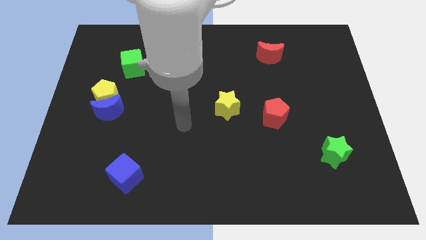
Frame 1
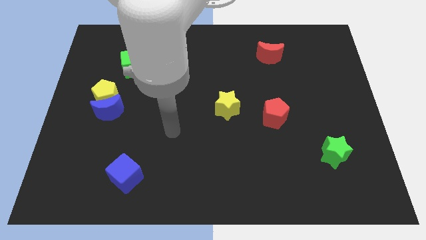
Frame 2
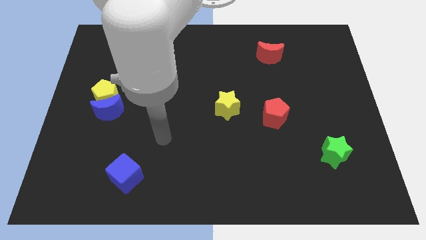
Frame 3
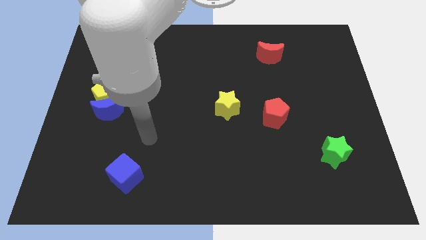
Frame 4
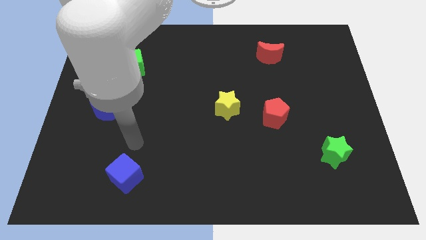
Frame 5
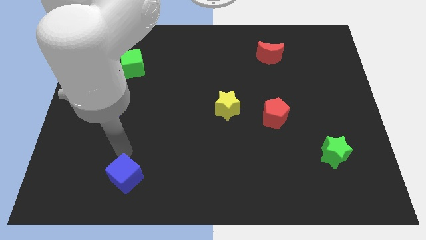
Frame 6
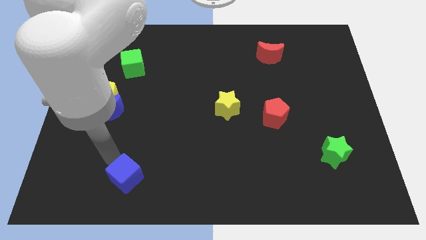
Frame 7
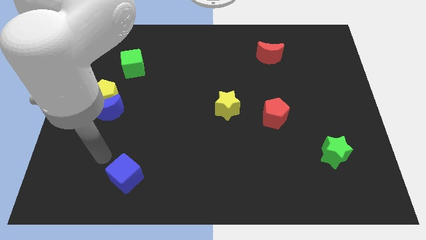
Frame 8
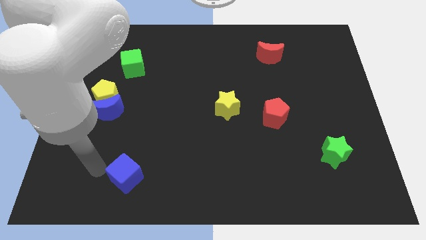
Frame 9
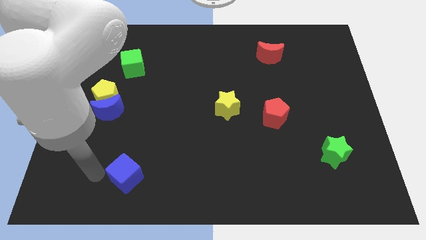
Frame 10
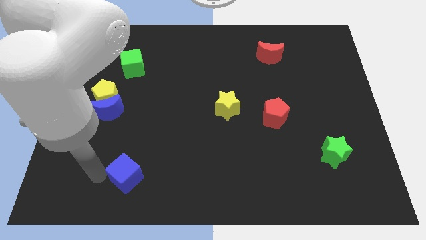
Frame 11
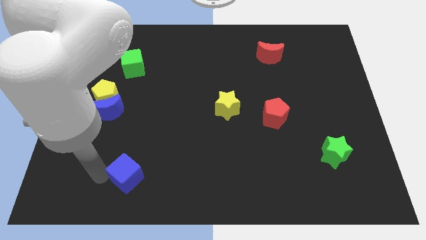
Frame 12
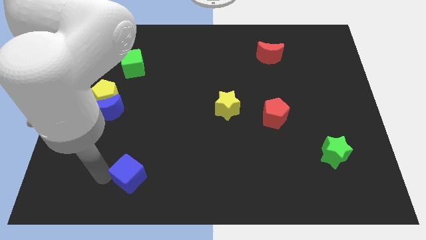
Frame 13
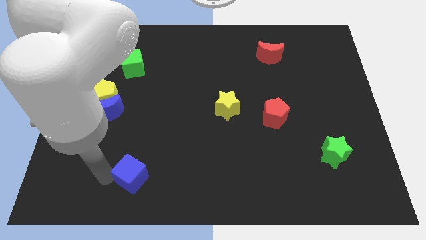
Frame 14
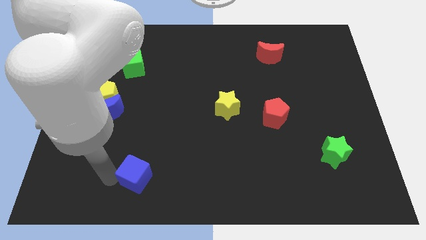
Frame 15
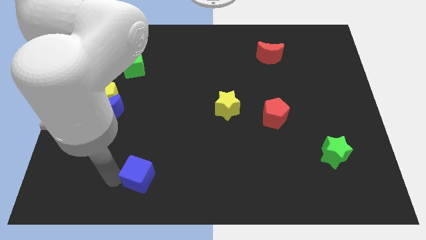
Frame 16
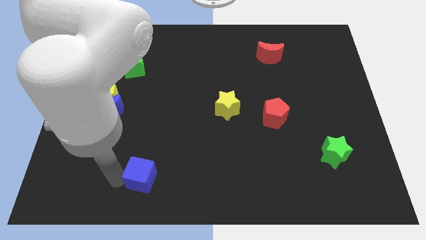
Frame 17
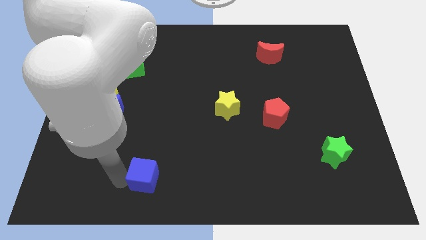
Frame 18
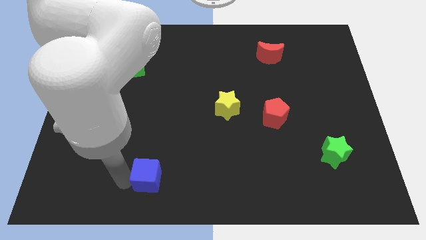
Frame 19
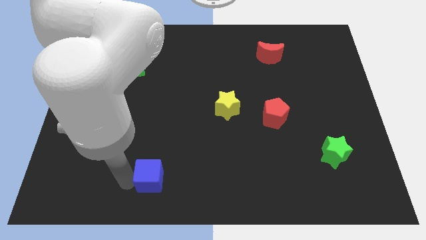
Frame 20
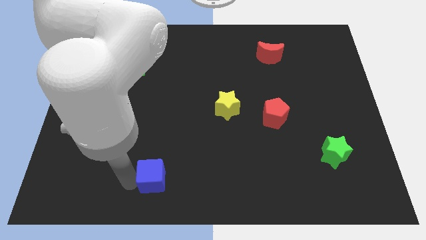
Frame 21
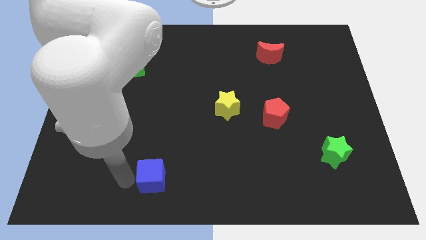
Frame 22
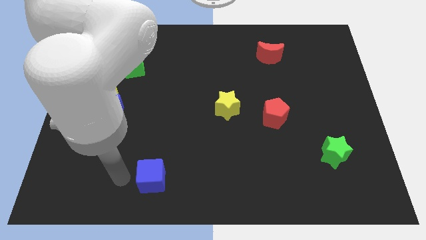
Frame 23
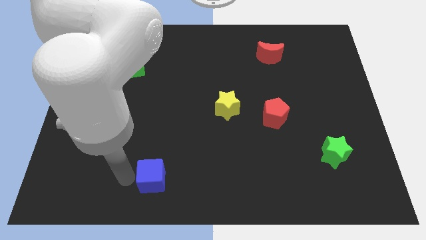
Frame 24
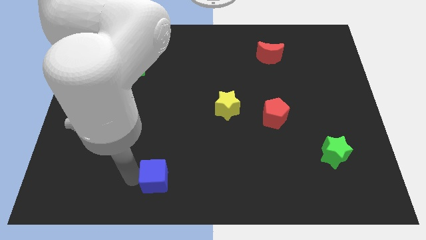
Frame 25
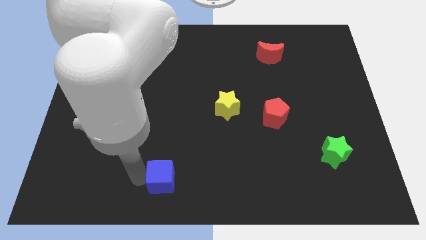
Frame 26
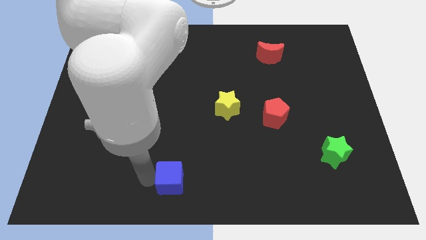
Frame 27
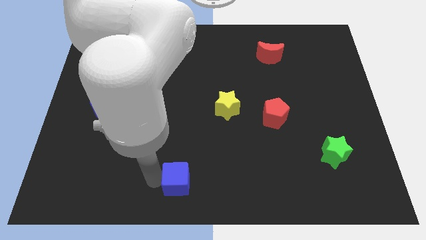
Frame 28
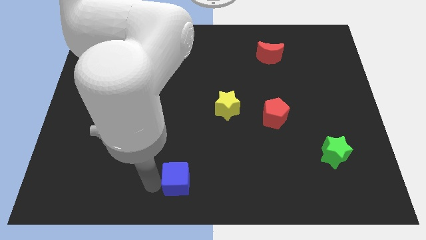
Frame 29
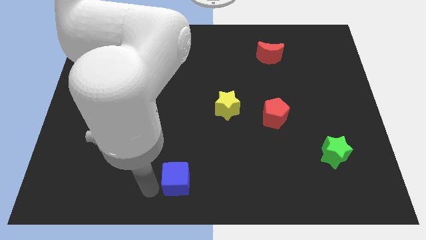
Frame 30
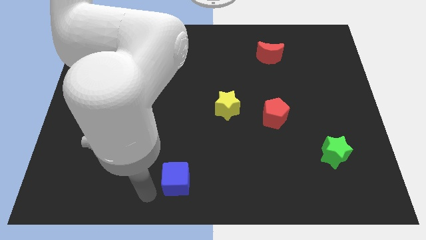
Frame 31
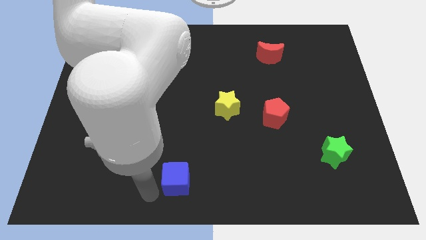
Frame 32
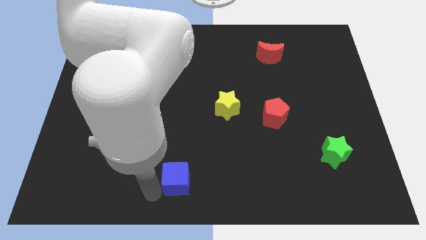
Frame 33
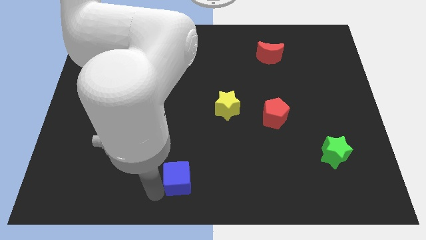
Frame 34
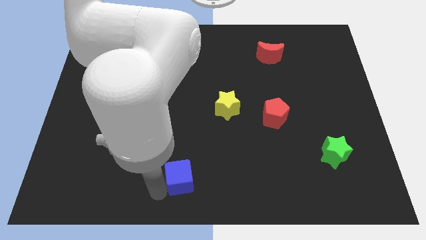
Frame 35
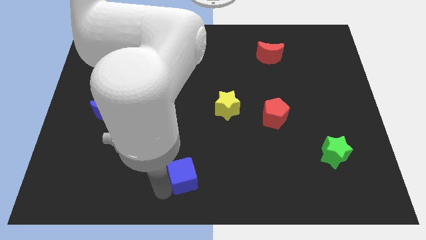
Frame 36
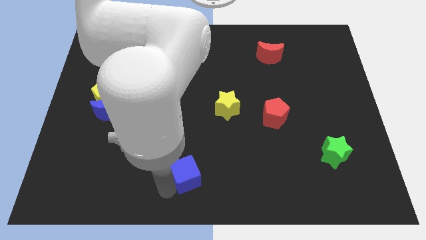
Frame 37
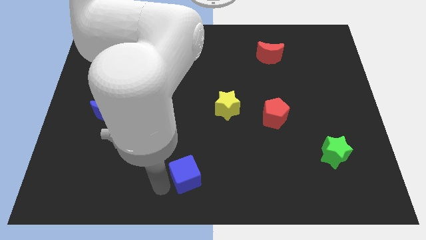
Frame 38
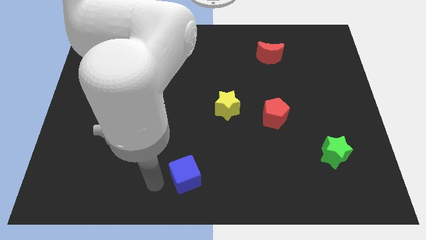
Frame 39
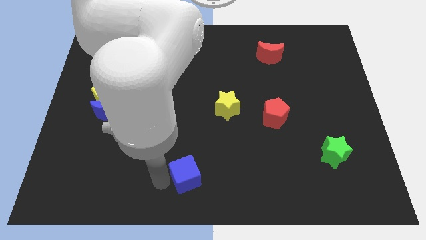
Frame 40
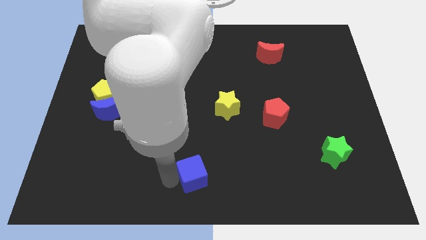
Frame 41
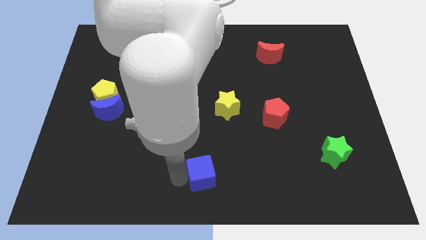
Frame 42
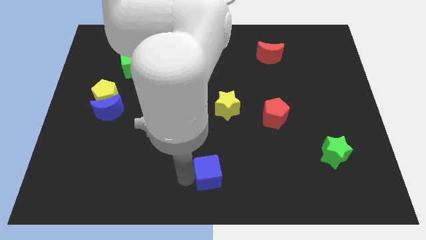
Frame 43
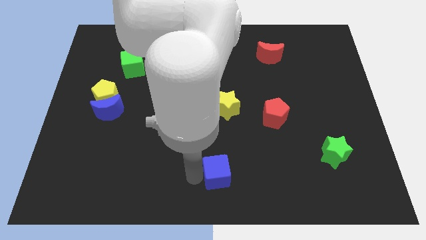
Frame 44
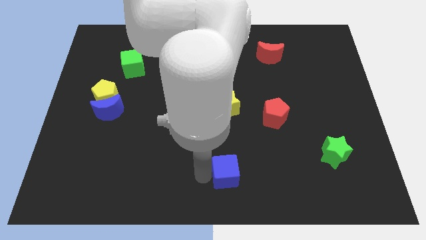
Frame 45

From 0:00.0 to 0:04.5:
slide the blue cube right

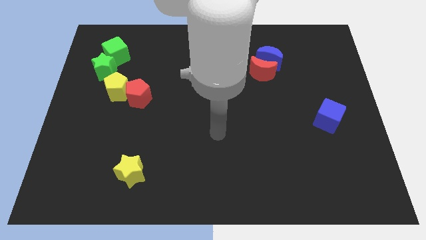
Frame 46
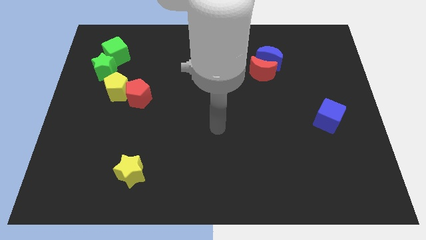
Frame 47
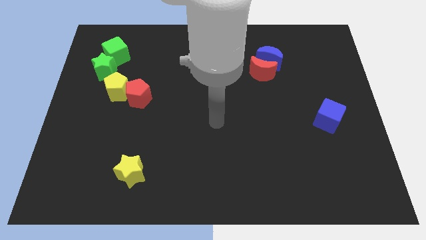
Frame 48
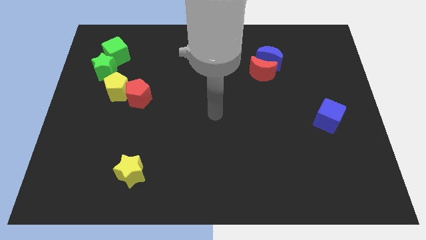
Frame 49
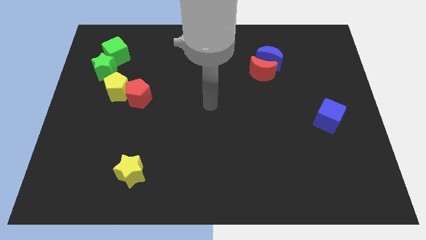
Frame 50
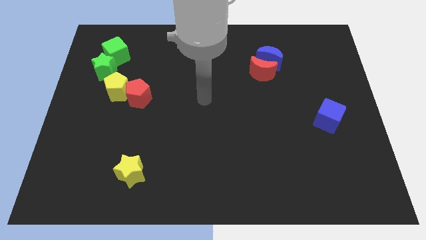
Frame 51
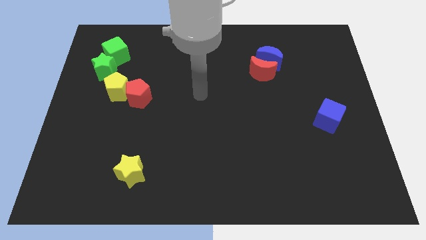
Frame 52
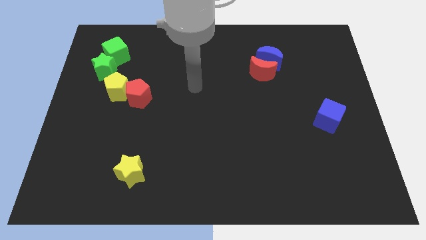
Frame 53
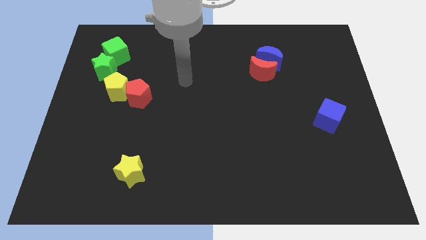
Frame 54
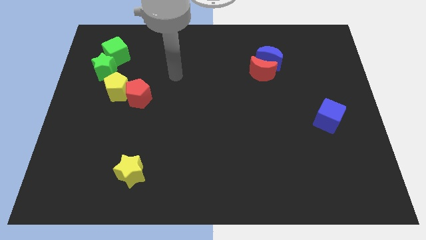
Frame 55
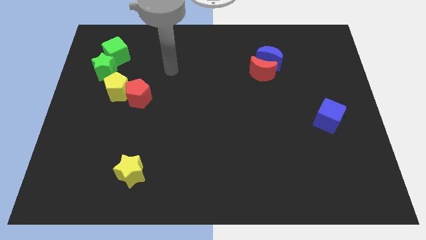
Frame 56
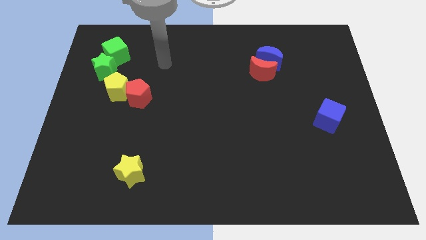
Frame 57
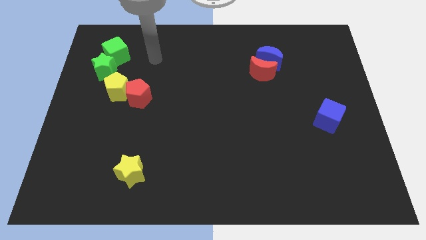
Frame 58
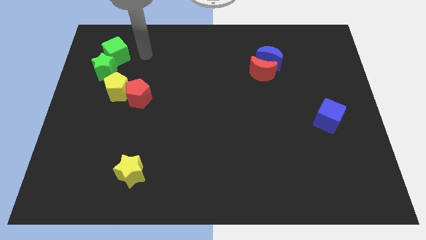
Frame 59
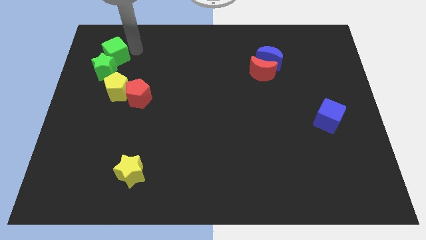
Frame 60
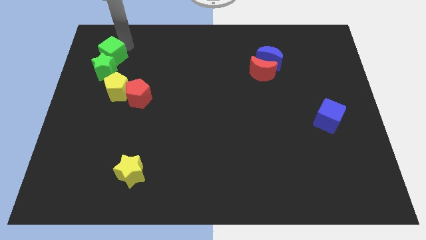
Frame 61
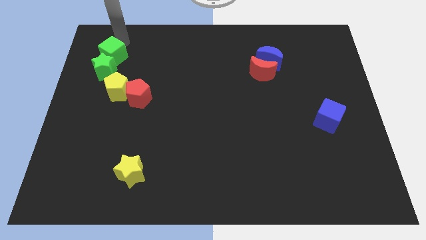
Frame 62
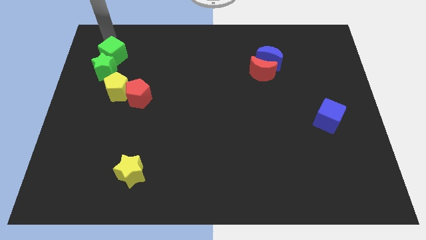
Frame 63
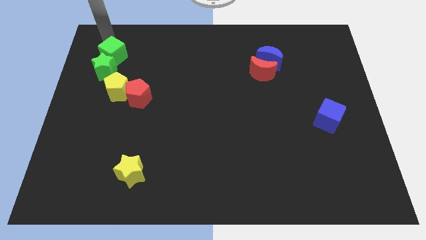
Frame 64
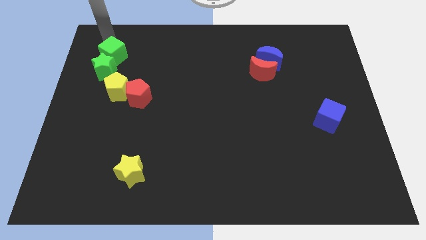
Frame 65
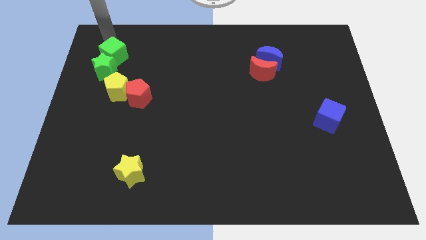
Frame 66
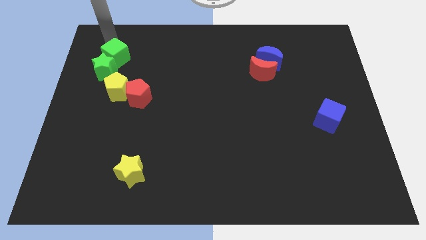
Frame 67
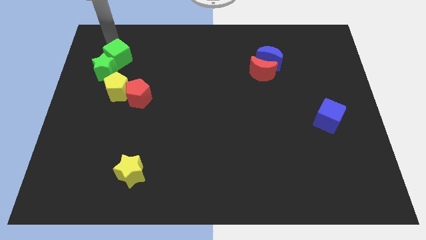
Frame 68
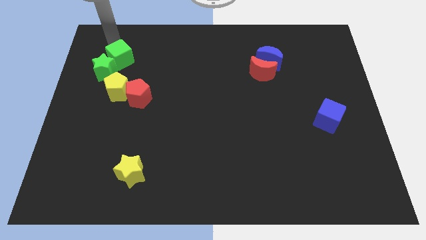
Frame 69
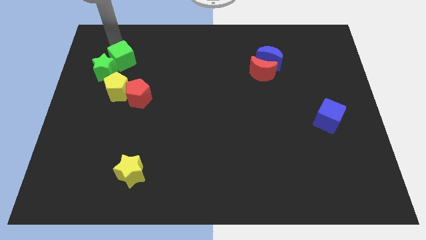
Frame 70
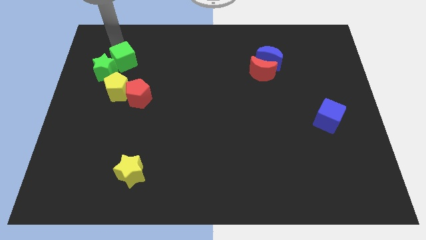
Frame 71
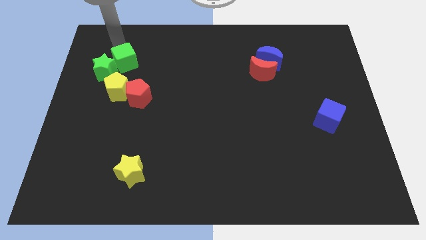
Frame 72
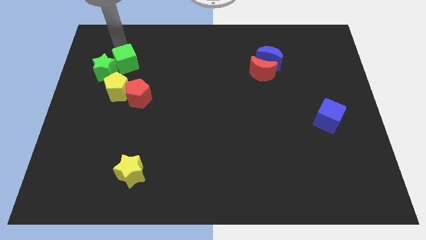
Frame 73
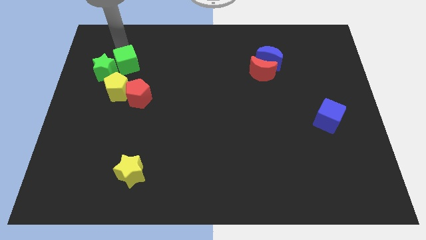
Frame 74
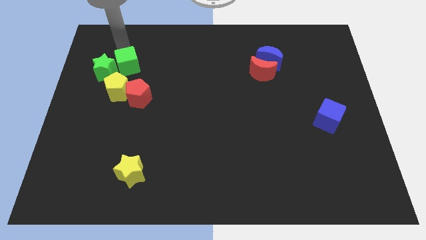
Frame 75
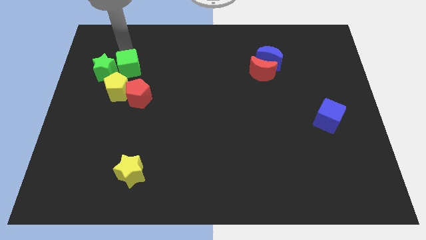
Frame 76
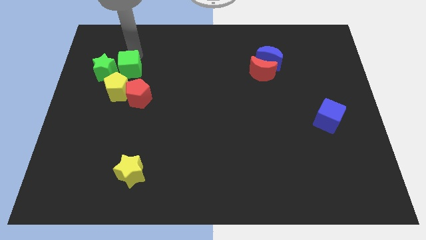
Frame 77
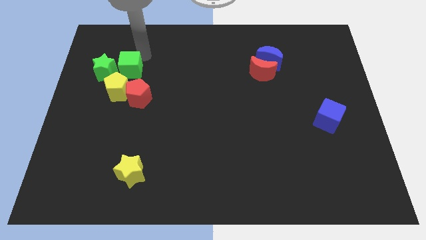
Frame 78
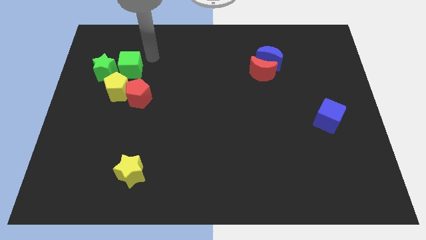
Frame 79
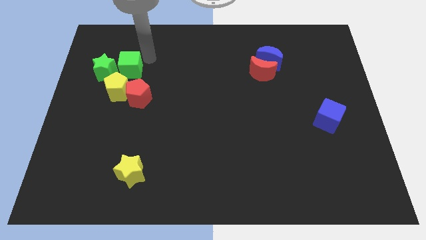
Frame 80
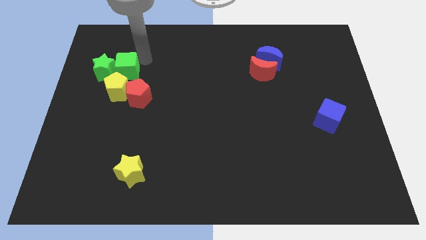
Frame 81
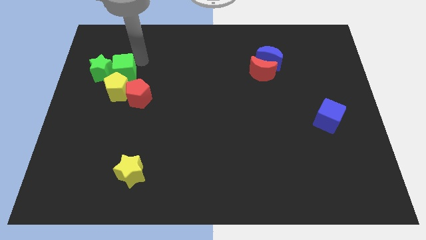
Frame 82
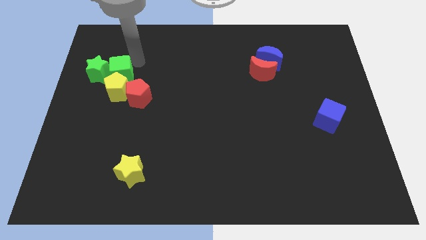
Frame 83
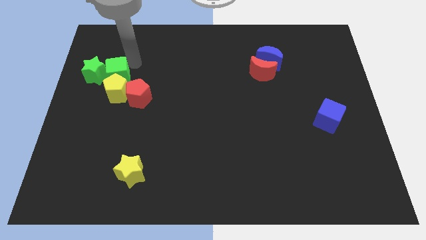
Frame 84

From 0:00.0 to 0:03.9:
slightly push the green cube down
